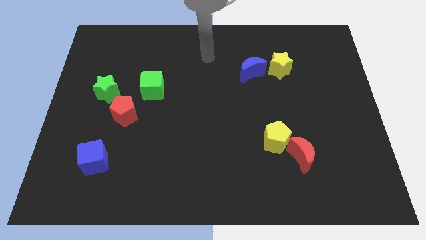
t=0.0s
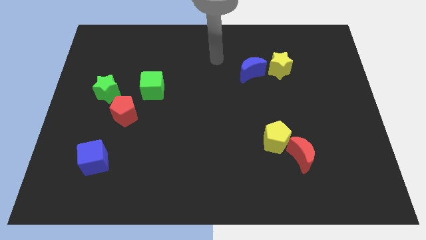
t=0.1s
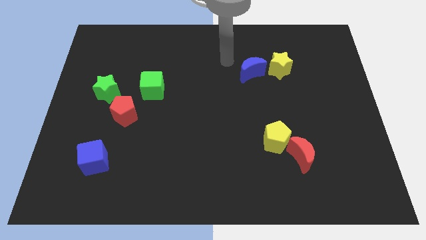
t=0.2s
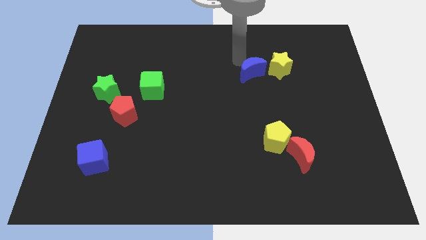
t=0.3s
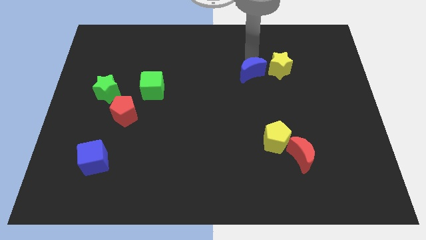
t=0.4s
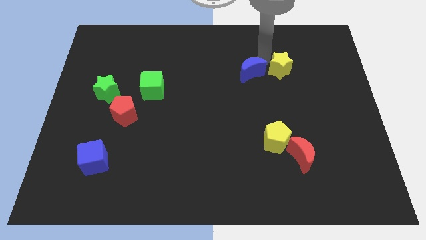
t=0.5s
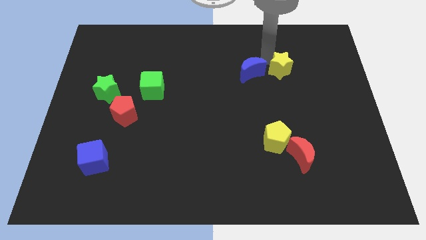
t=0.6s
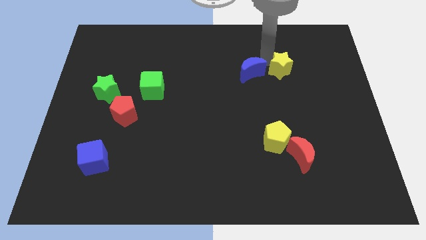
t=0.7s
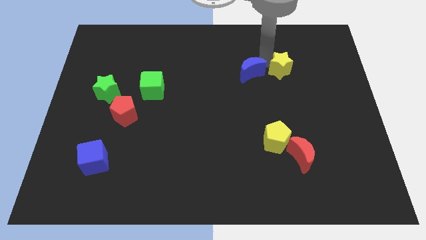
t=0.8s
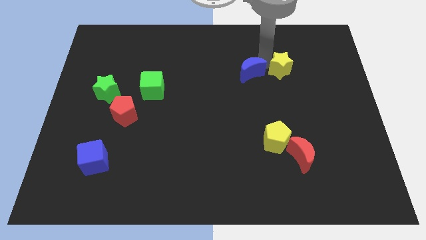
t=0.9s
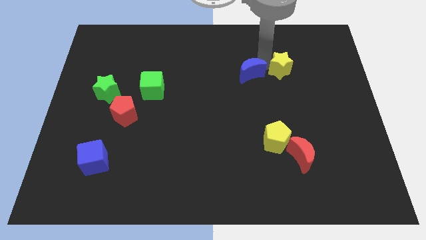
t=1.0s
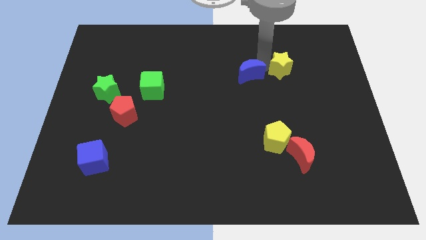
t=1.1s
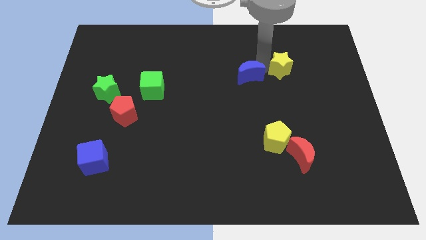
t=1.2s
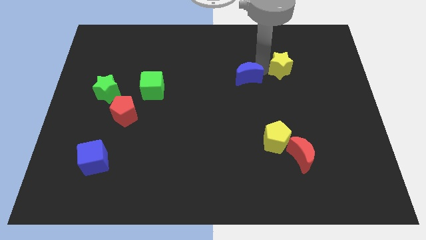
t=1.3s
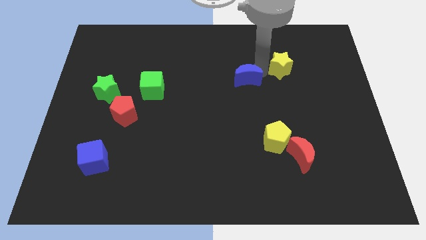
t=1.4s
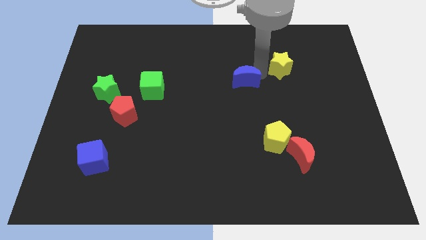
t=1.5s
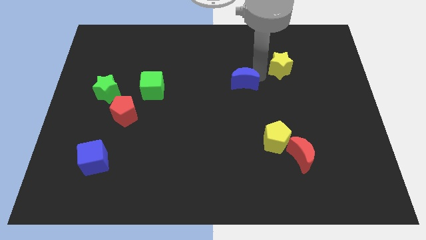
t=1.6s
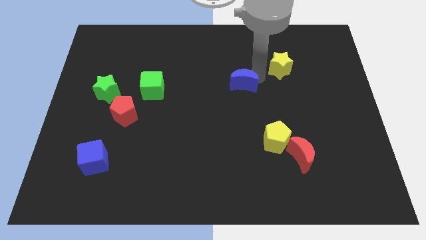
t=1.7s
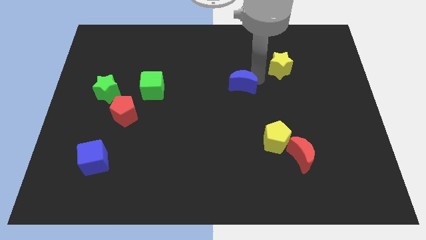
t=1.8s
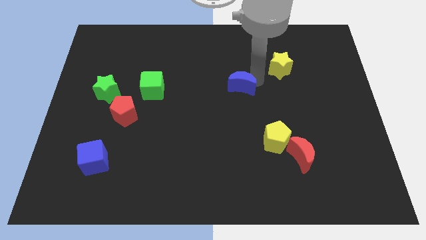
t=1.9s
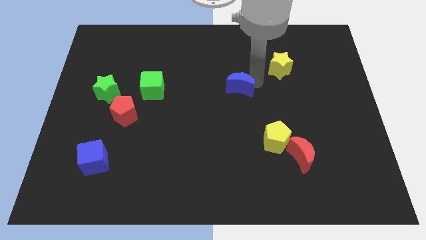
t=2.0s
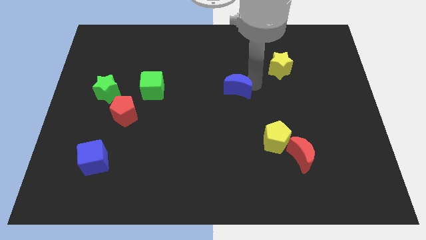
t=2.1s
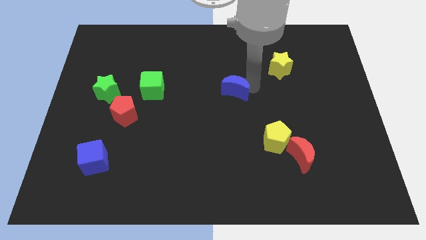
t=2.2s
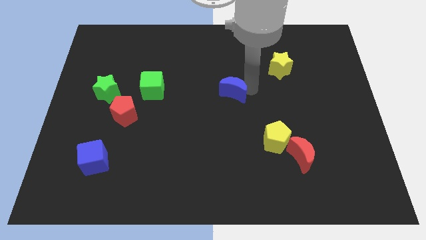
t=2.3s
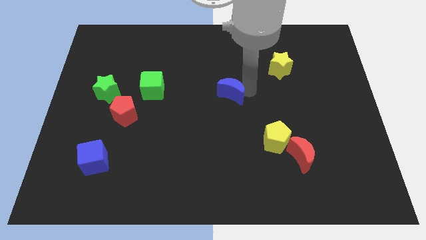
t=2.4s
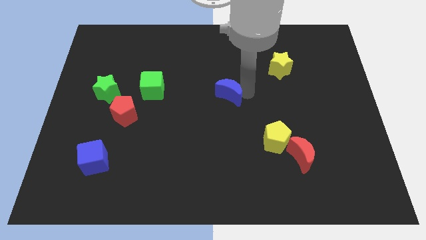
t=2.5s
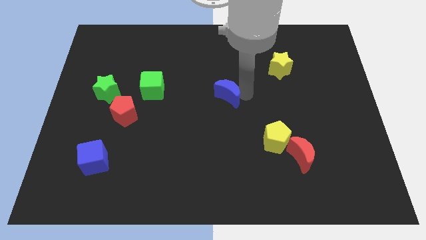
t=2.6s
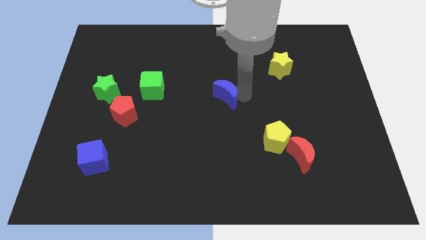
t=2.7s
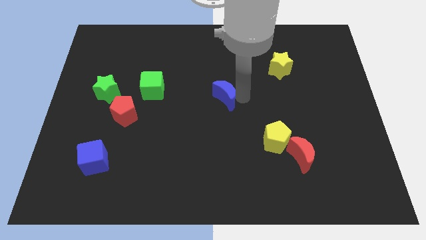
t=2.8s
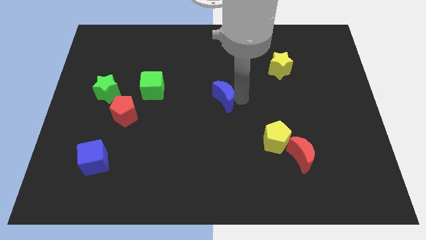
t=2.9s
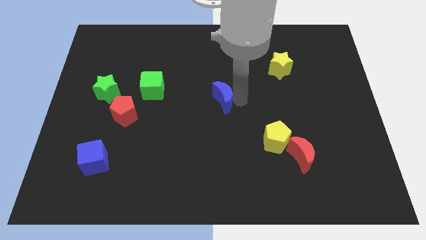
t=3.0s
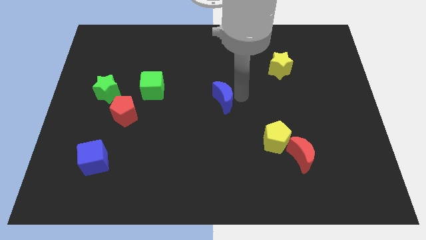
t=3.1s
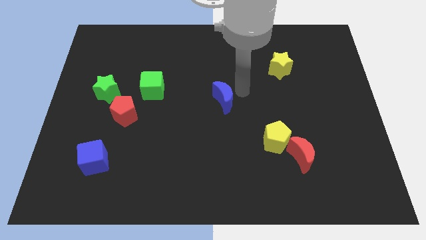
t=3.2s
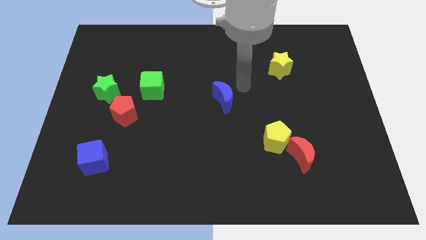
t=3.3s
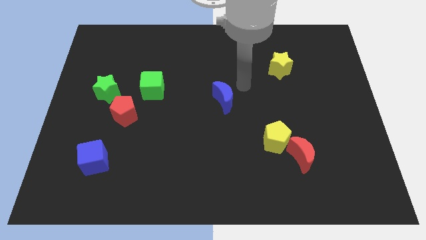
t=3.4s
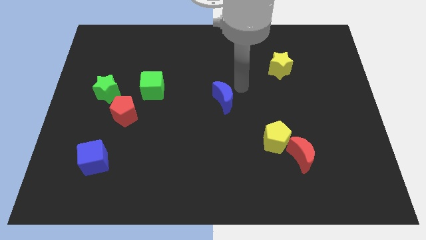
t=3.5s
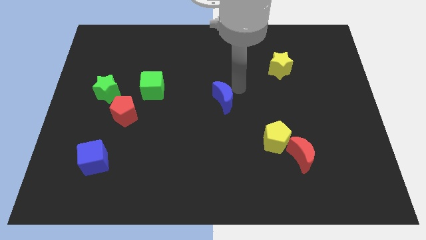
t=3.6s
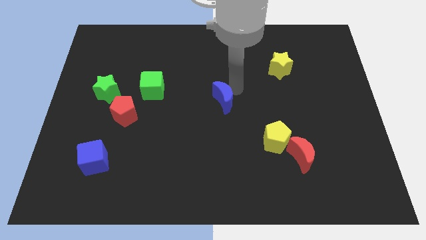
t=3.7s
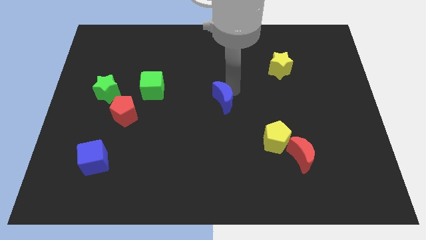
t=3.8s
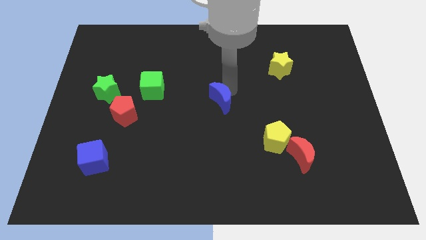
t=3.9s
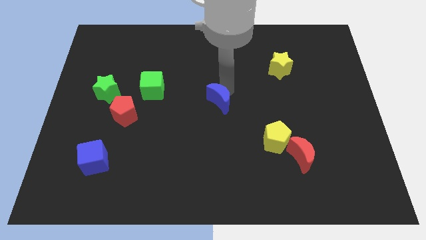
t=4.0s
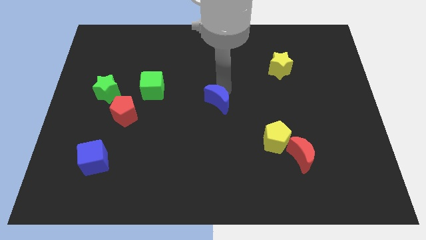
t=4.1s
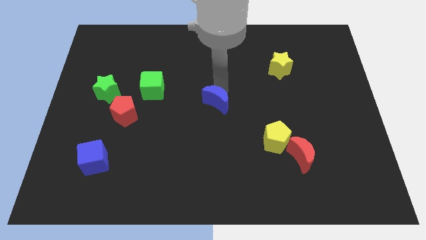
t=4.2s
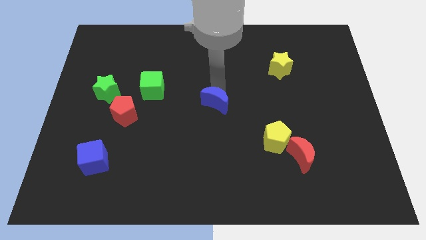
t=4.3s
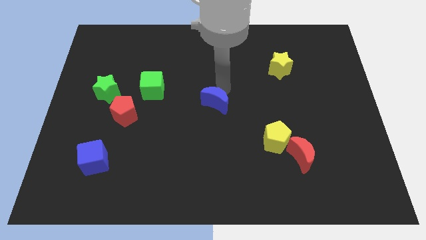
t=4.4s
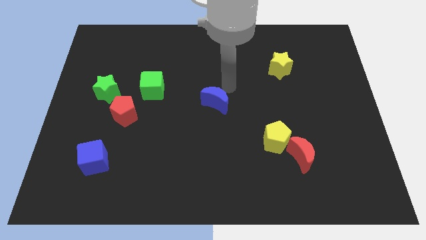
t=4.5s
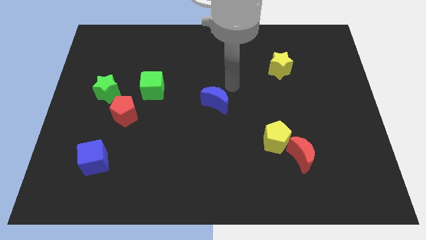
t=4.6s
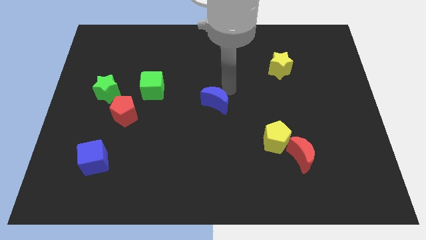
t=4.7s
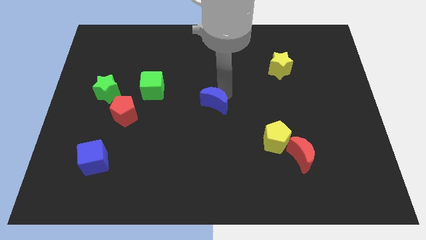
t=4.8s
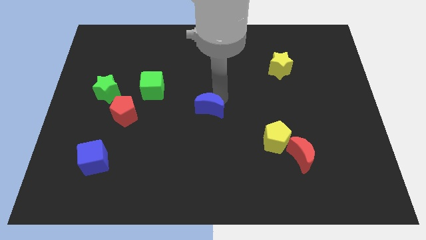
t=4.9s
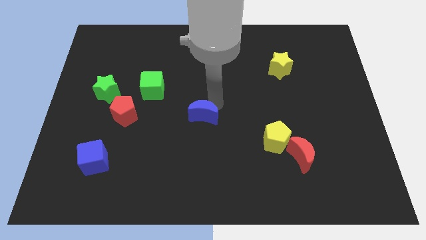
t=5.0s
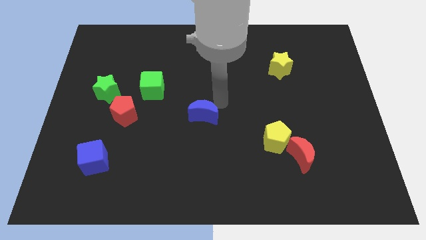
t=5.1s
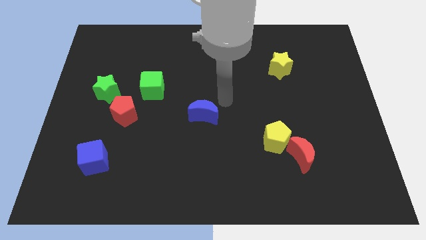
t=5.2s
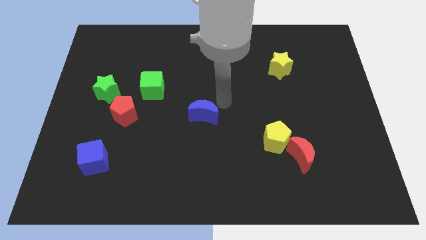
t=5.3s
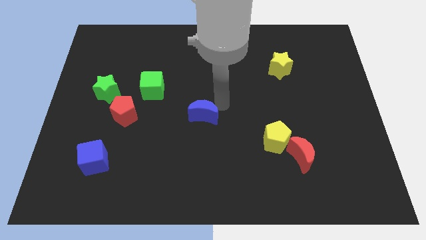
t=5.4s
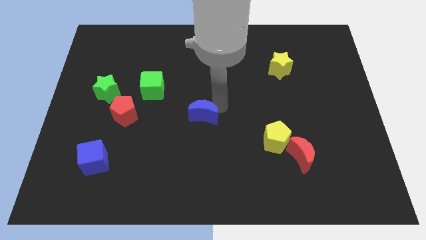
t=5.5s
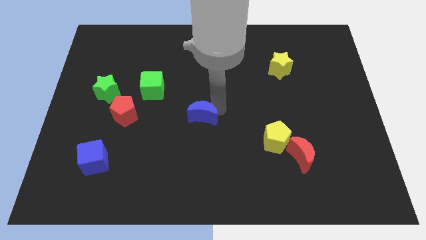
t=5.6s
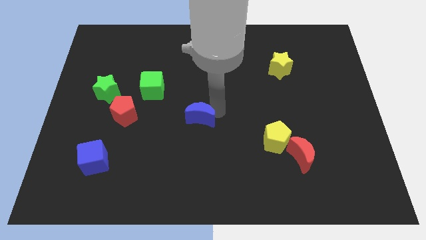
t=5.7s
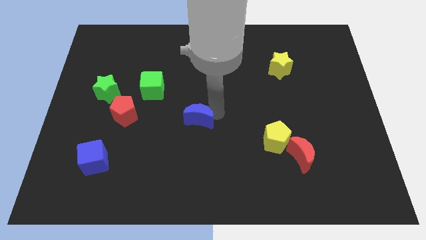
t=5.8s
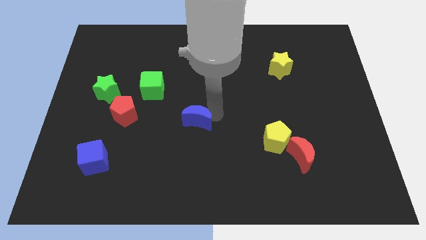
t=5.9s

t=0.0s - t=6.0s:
slide the blue moon down and to the left diagonally

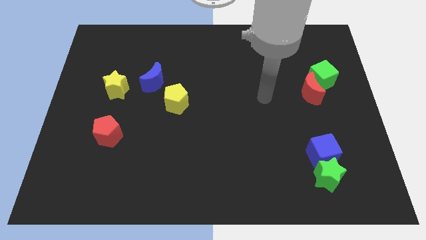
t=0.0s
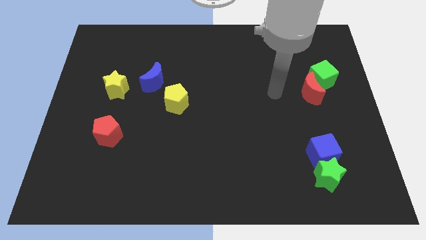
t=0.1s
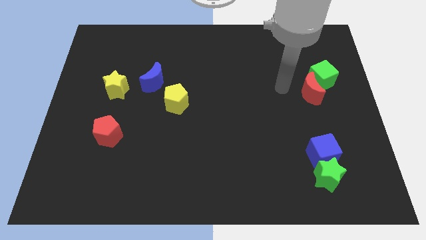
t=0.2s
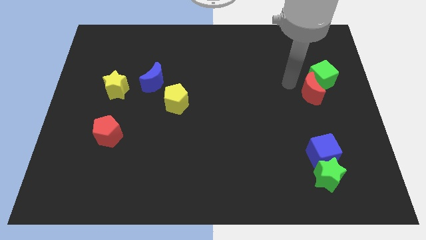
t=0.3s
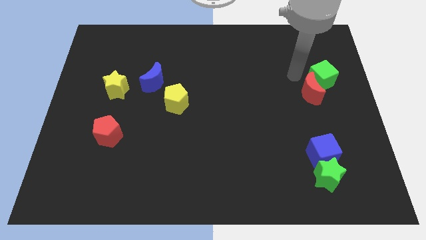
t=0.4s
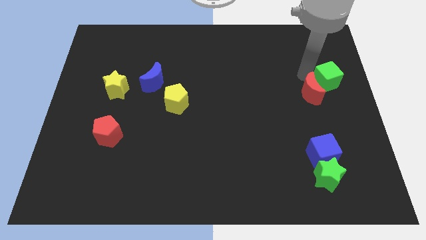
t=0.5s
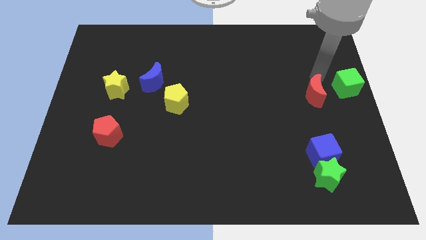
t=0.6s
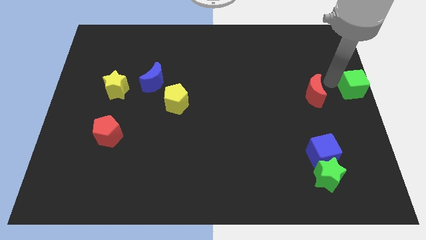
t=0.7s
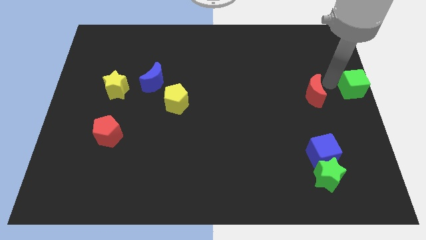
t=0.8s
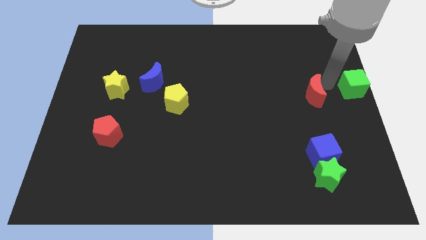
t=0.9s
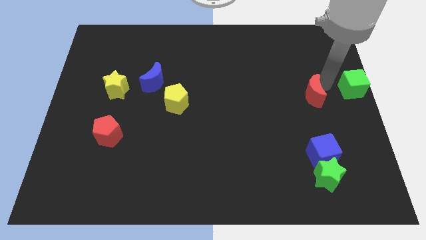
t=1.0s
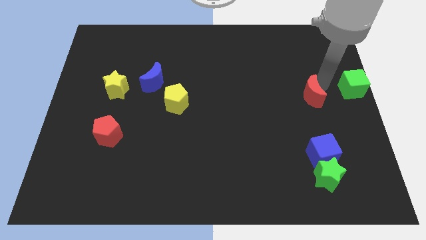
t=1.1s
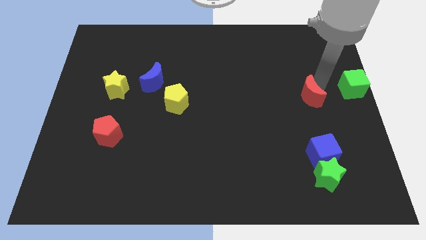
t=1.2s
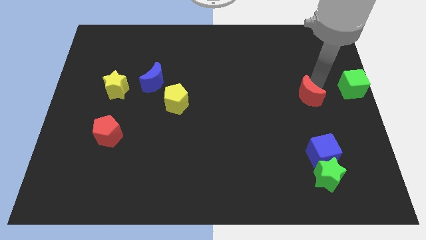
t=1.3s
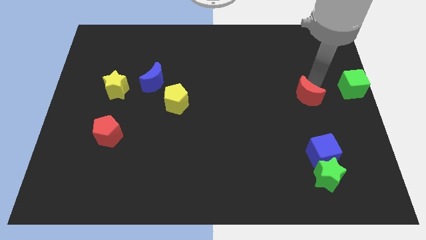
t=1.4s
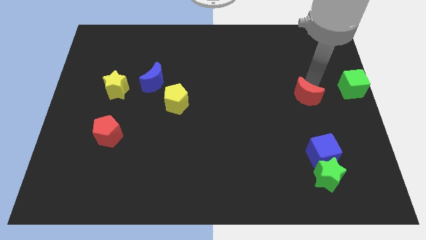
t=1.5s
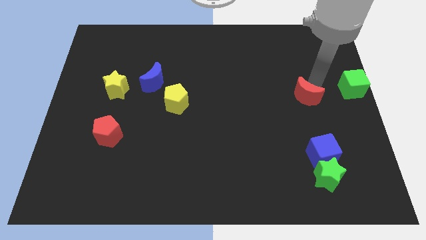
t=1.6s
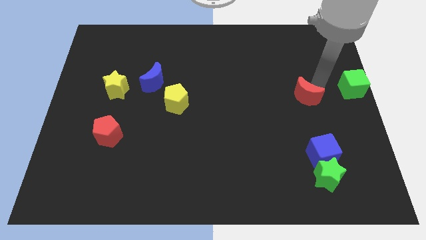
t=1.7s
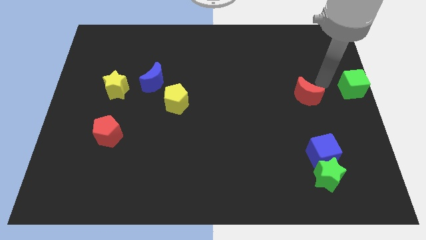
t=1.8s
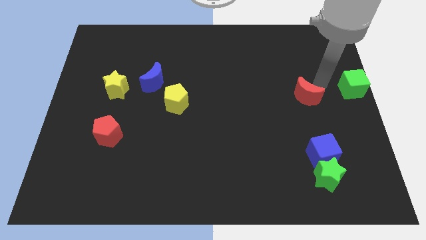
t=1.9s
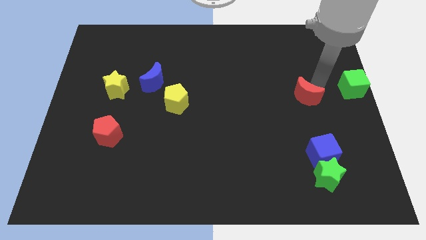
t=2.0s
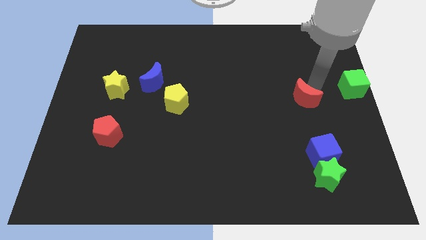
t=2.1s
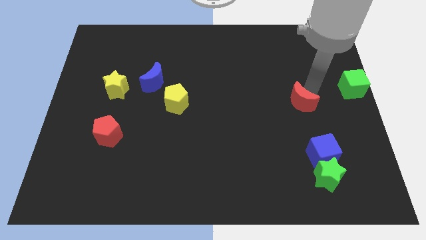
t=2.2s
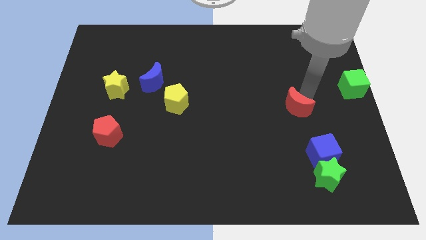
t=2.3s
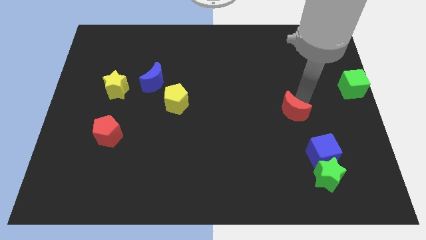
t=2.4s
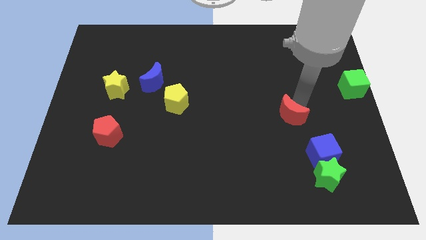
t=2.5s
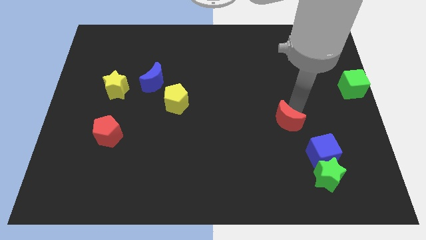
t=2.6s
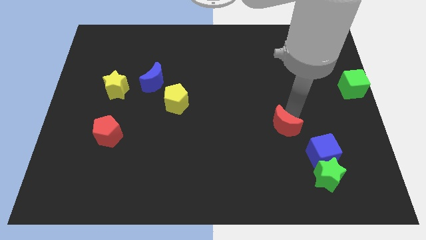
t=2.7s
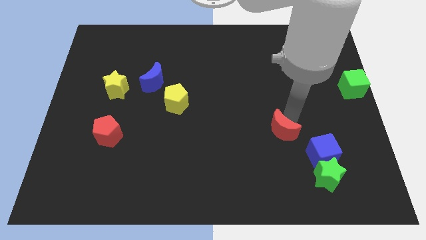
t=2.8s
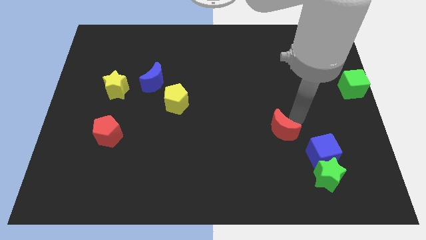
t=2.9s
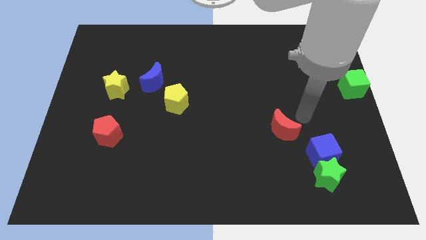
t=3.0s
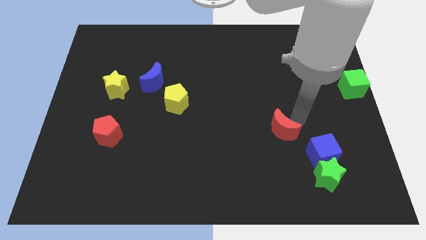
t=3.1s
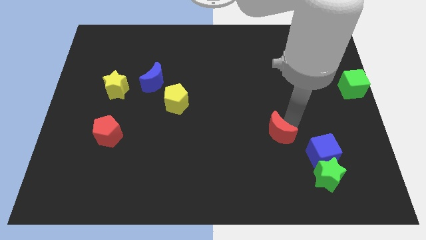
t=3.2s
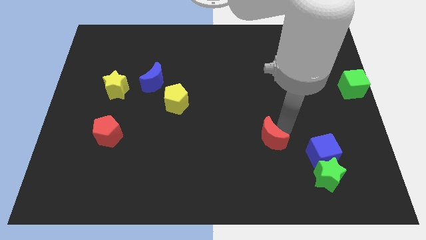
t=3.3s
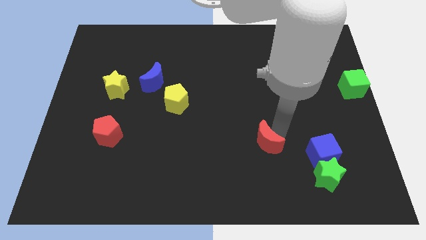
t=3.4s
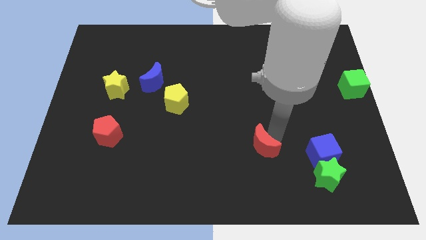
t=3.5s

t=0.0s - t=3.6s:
move the red moon diagonally downwards and left
